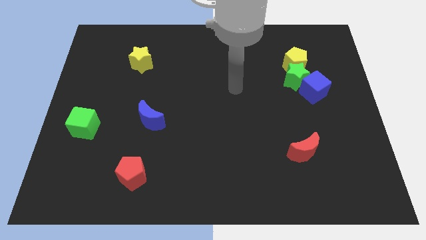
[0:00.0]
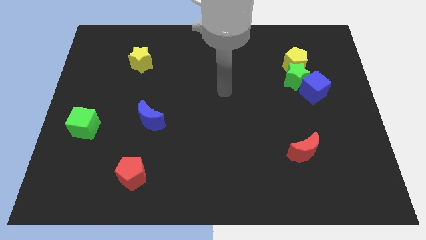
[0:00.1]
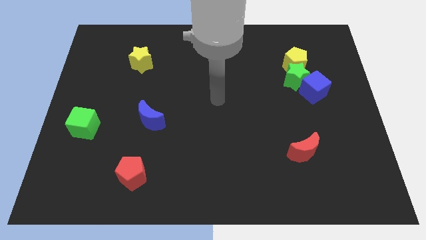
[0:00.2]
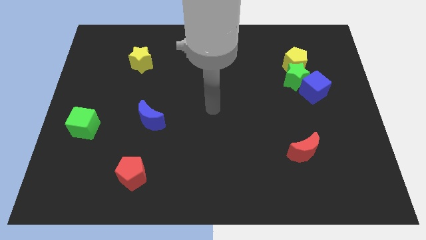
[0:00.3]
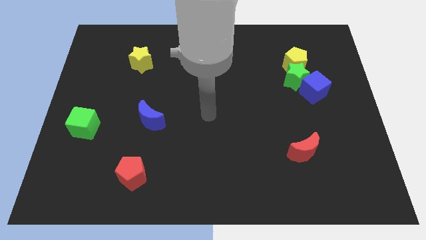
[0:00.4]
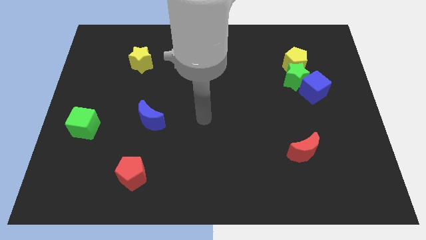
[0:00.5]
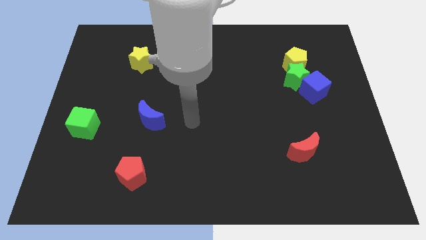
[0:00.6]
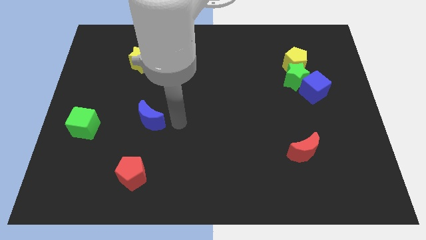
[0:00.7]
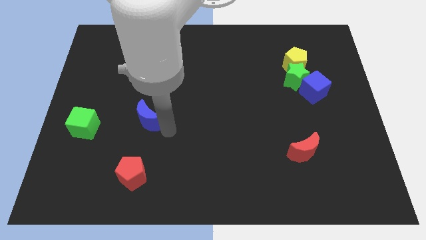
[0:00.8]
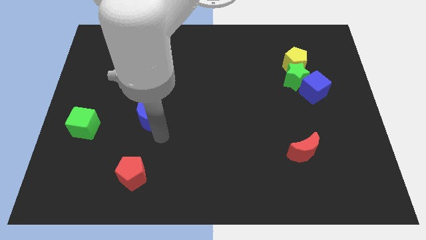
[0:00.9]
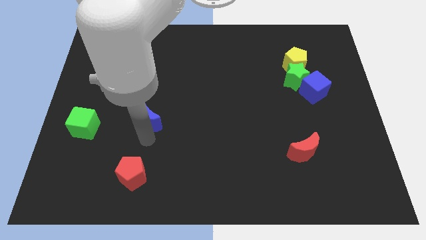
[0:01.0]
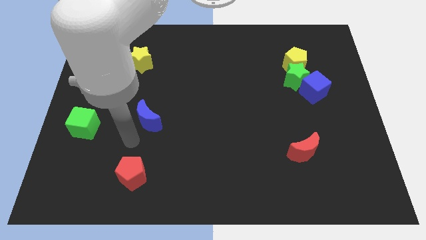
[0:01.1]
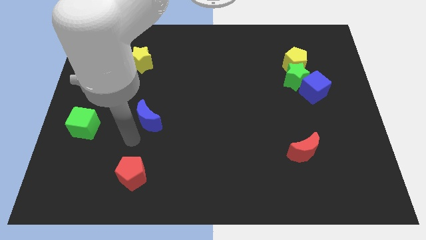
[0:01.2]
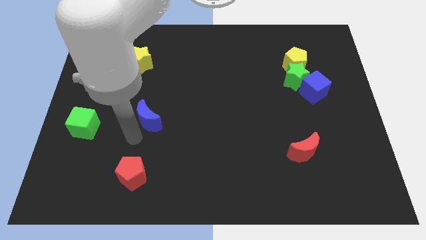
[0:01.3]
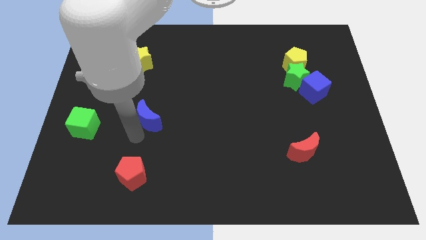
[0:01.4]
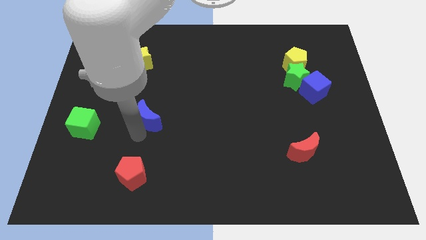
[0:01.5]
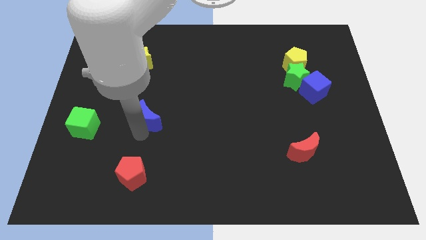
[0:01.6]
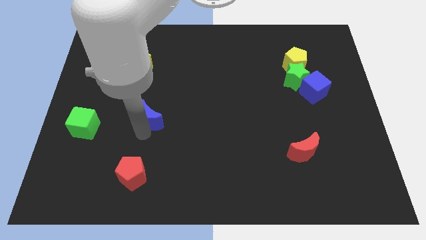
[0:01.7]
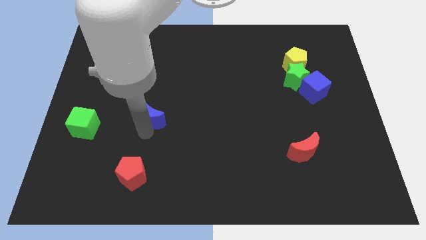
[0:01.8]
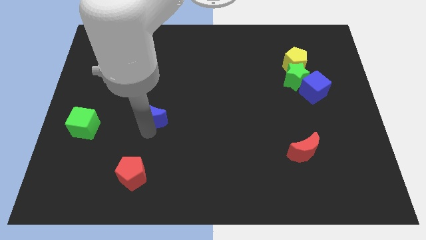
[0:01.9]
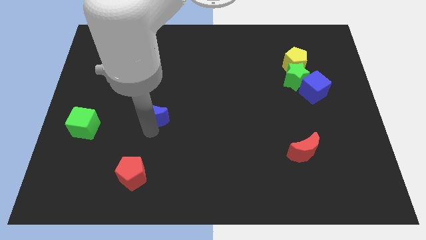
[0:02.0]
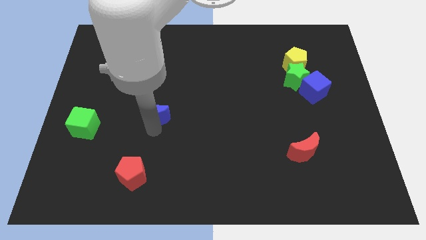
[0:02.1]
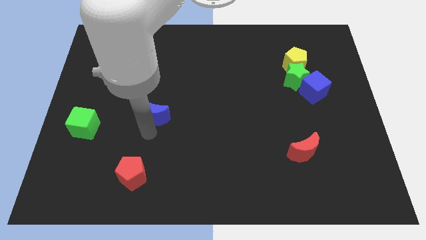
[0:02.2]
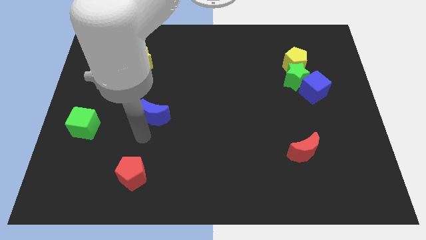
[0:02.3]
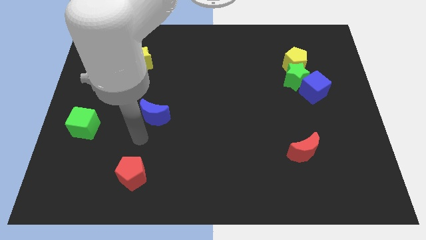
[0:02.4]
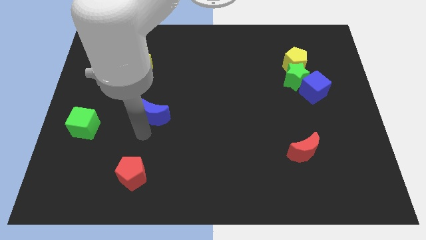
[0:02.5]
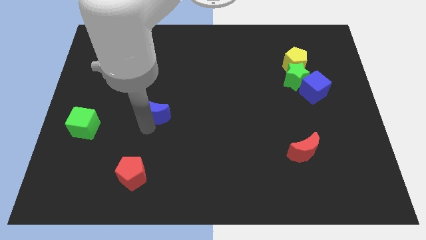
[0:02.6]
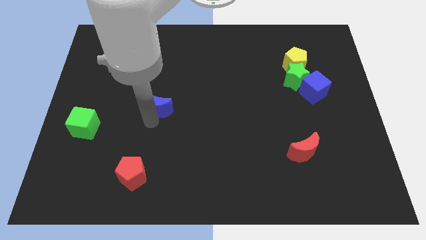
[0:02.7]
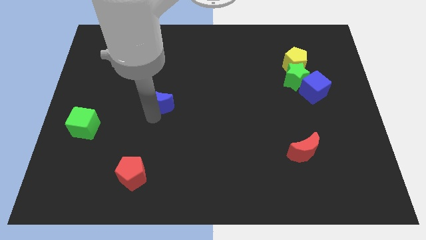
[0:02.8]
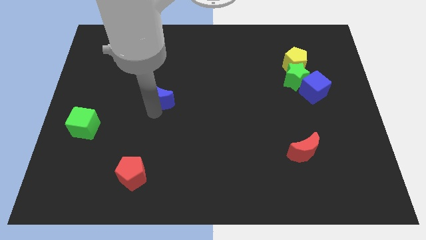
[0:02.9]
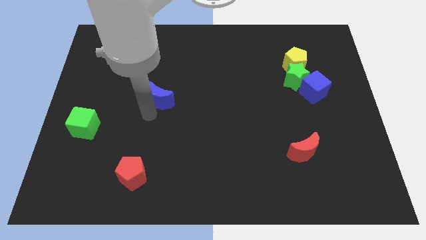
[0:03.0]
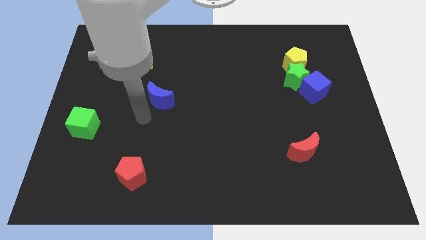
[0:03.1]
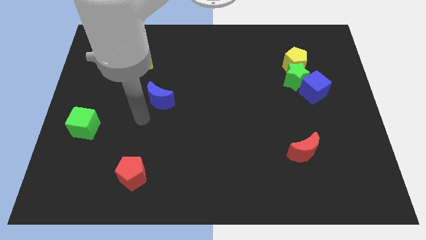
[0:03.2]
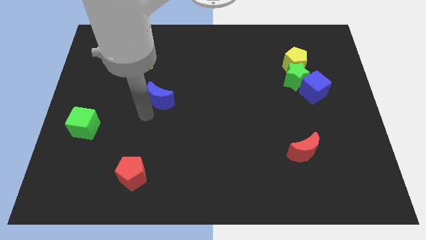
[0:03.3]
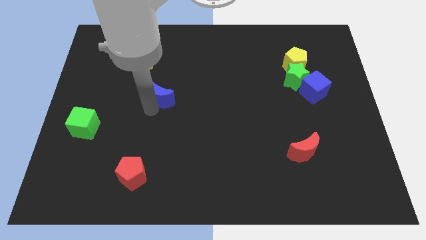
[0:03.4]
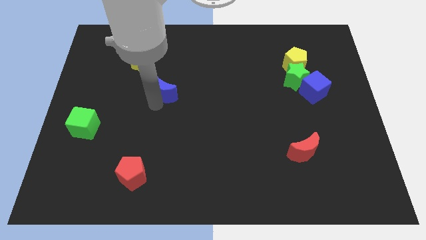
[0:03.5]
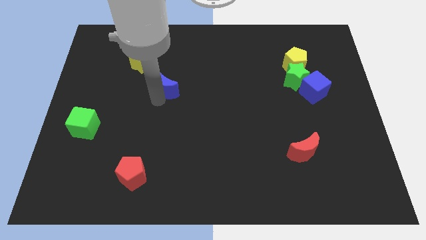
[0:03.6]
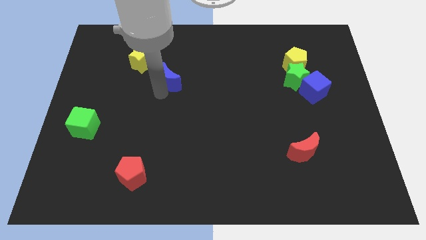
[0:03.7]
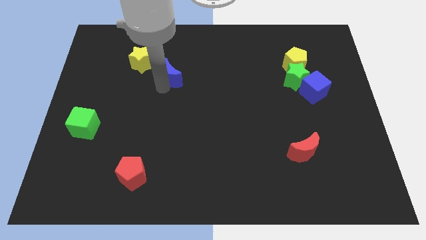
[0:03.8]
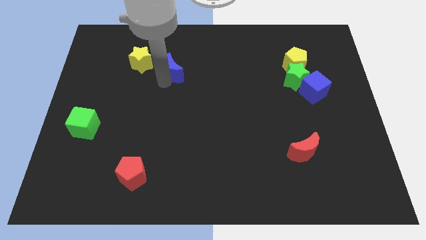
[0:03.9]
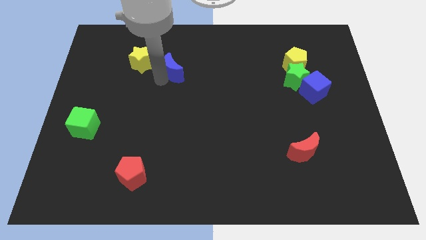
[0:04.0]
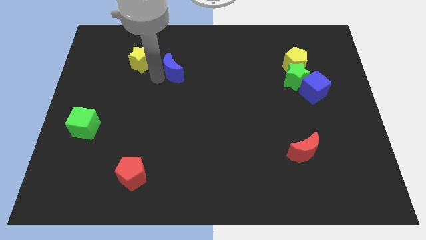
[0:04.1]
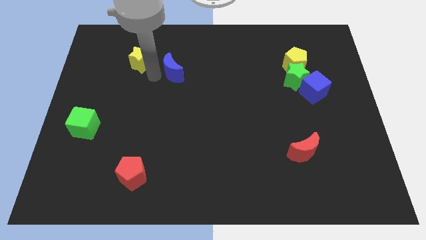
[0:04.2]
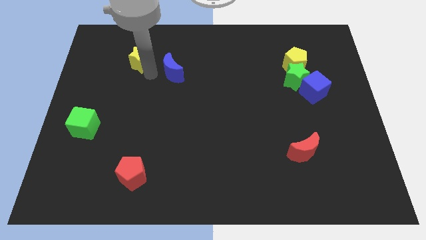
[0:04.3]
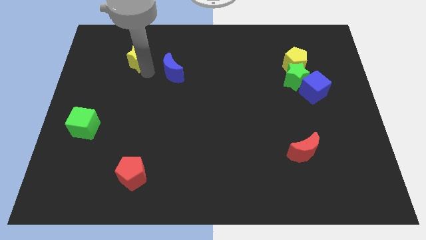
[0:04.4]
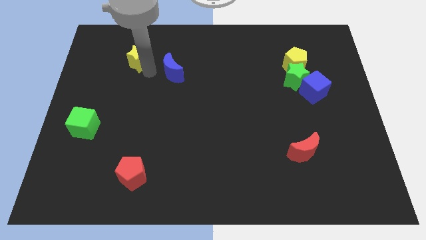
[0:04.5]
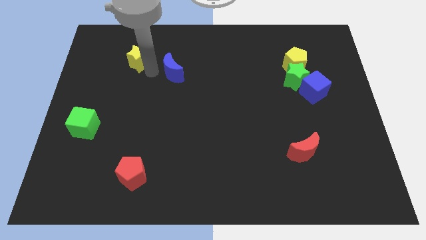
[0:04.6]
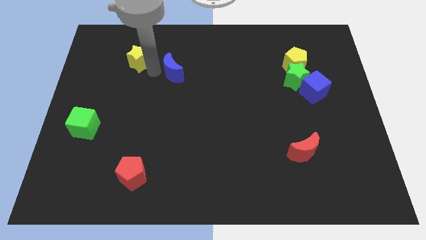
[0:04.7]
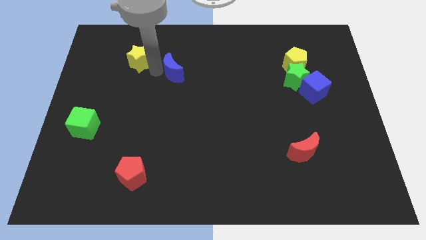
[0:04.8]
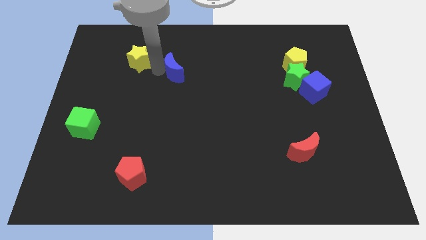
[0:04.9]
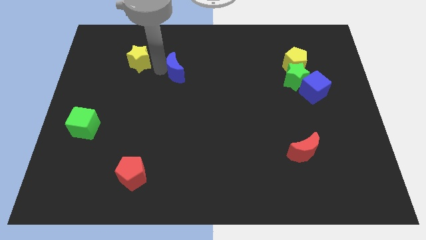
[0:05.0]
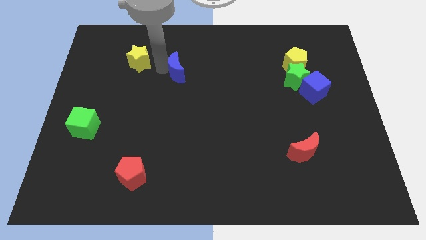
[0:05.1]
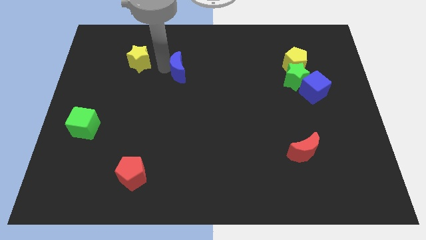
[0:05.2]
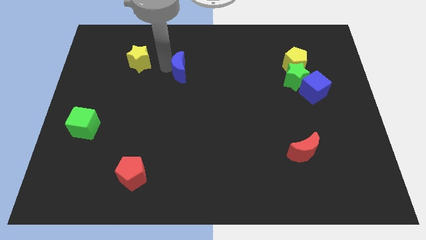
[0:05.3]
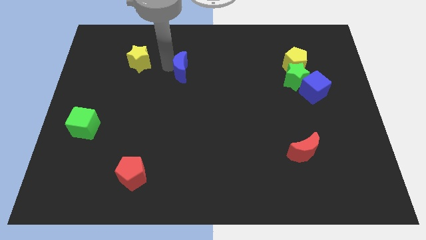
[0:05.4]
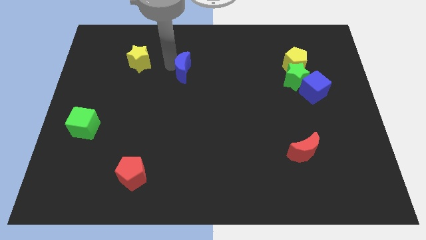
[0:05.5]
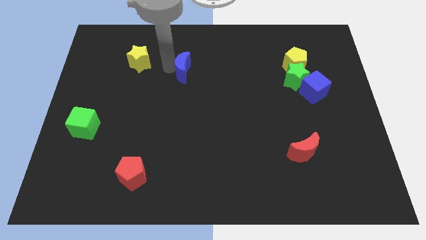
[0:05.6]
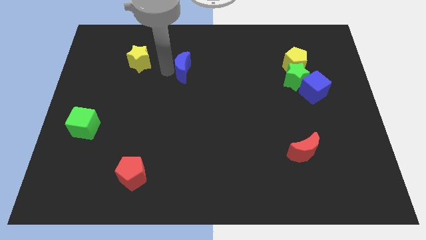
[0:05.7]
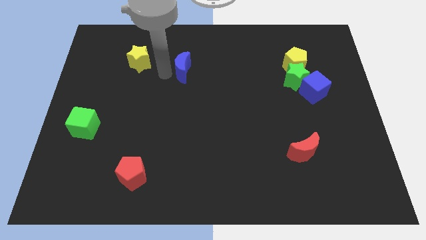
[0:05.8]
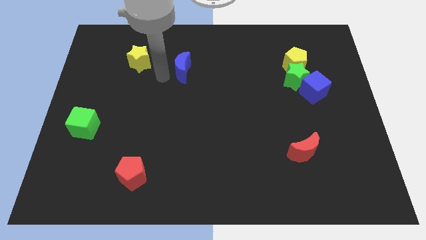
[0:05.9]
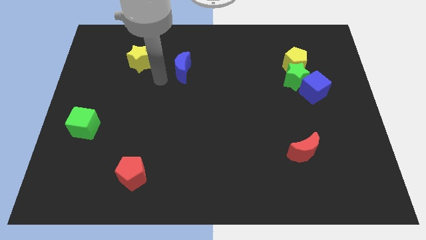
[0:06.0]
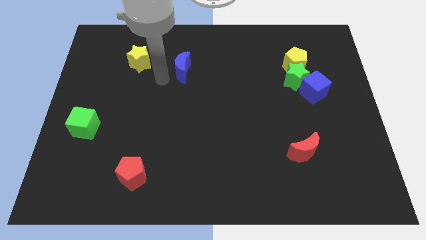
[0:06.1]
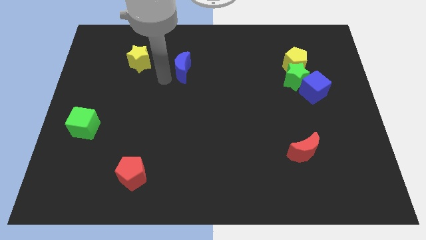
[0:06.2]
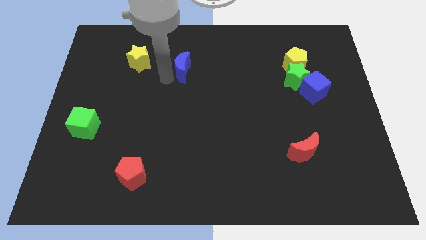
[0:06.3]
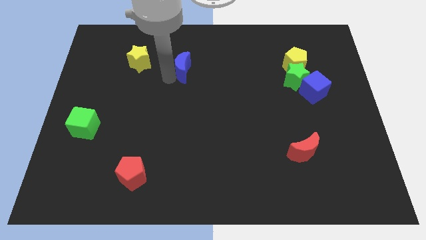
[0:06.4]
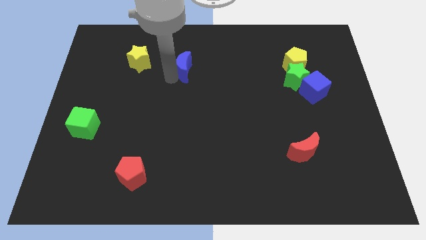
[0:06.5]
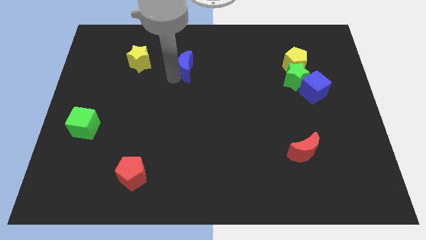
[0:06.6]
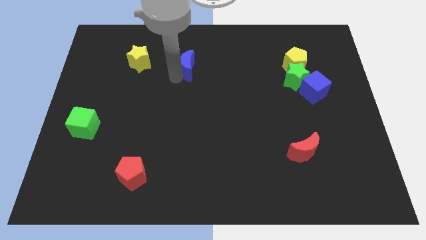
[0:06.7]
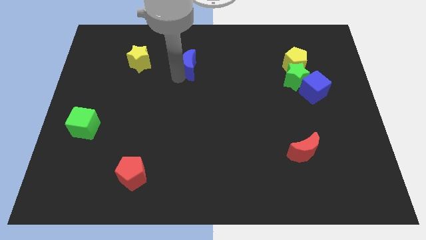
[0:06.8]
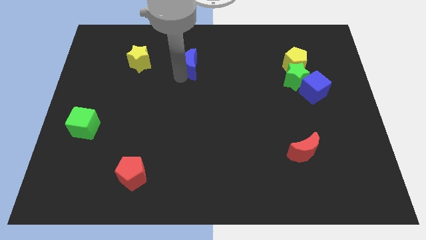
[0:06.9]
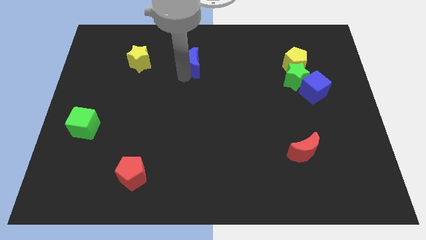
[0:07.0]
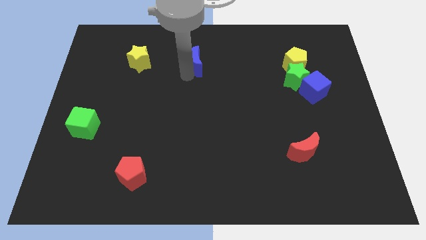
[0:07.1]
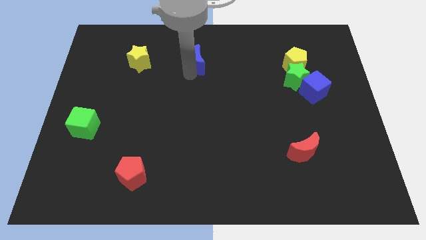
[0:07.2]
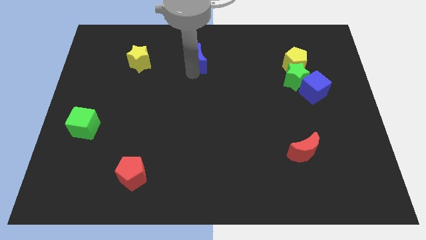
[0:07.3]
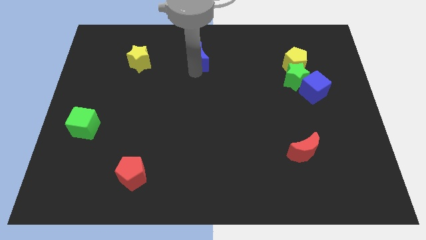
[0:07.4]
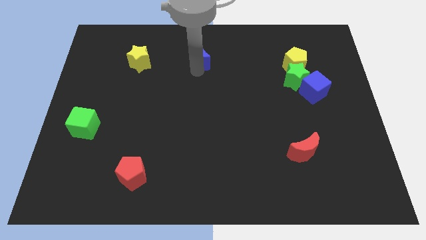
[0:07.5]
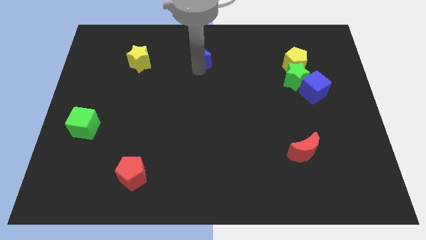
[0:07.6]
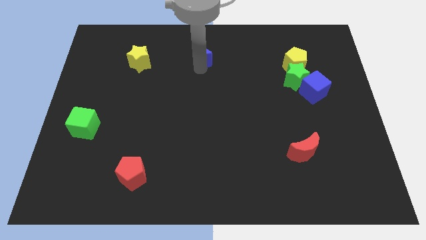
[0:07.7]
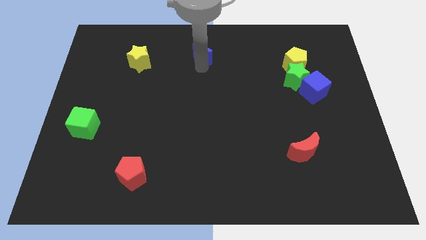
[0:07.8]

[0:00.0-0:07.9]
slide the blue moon to the top side
